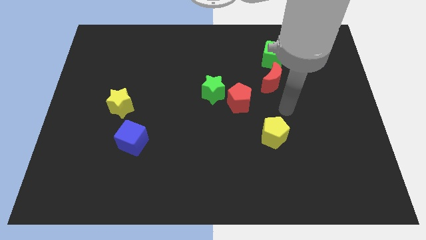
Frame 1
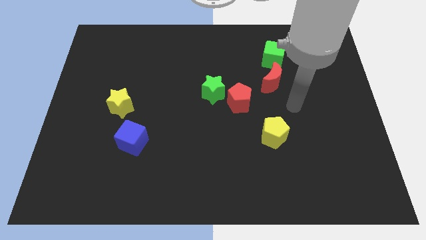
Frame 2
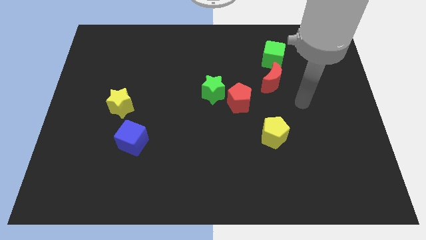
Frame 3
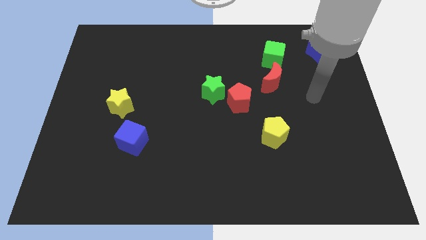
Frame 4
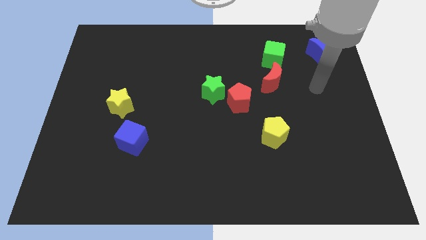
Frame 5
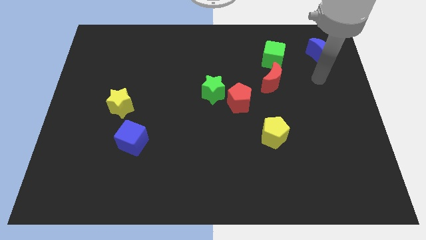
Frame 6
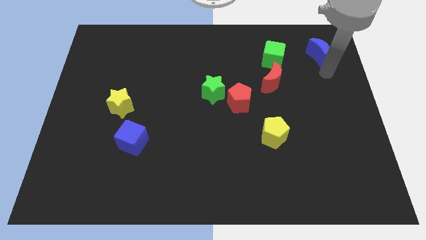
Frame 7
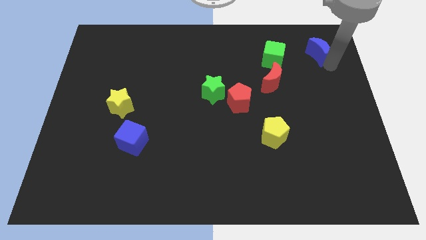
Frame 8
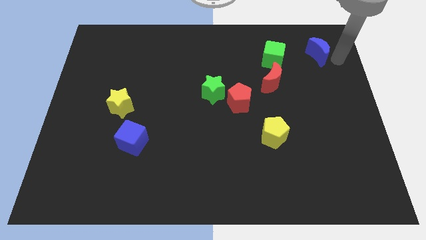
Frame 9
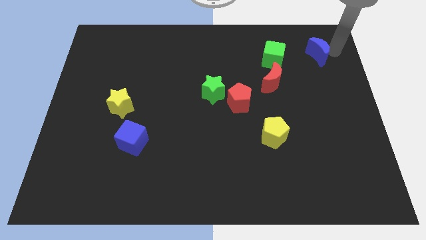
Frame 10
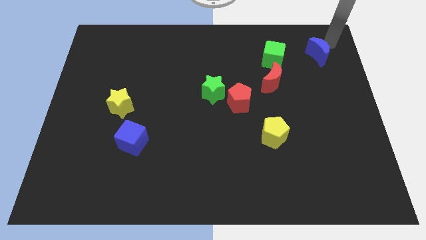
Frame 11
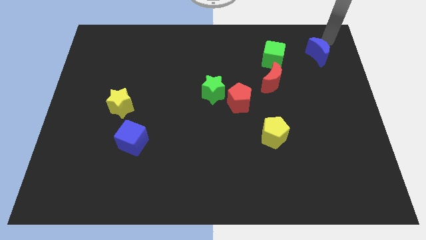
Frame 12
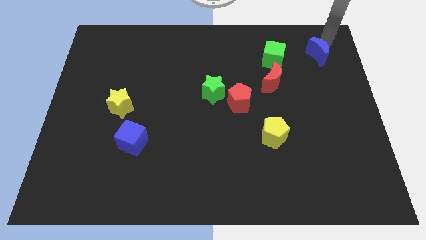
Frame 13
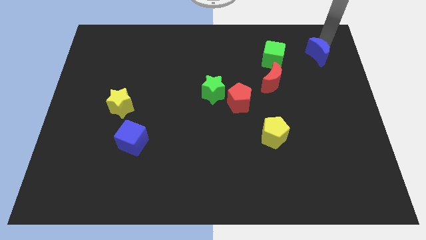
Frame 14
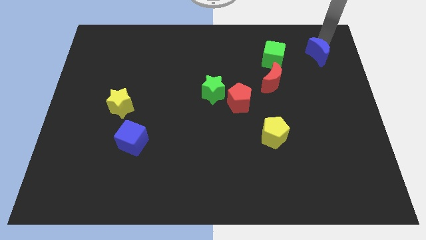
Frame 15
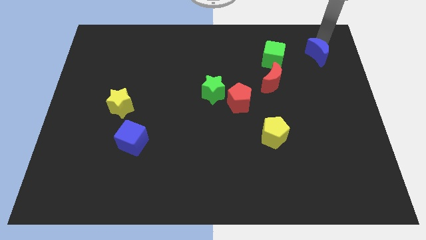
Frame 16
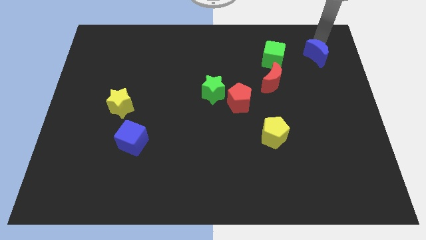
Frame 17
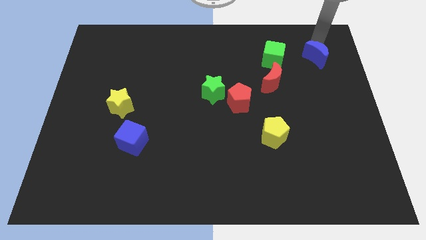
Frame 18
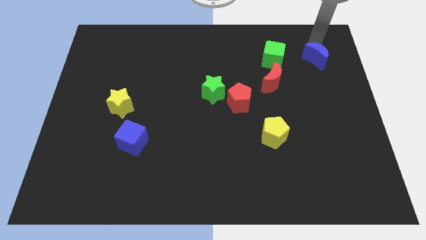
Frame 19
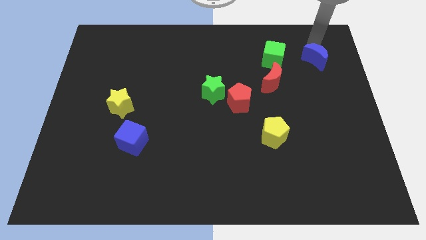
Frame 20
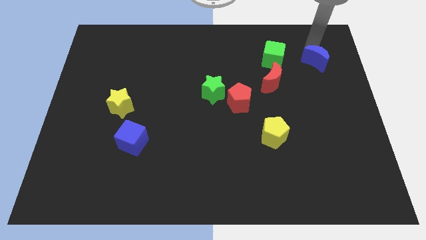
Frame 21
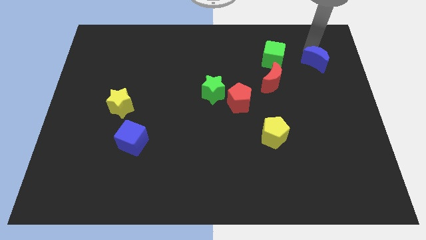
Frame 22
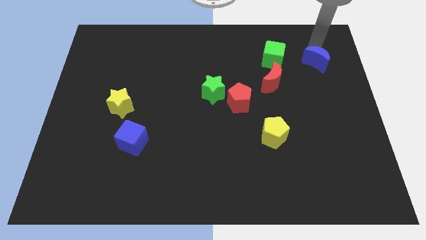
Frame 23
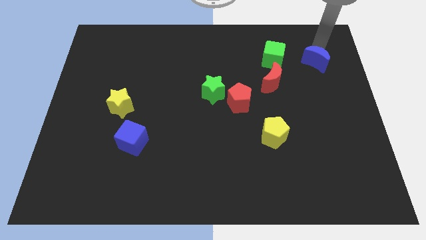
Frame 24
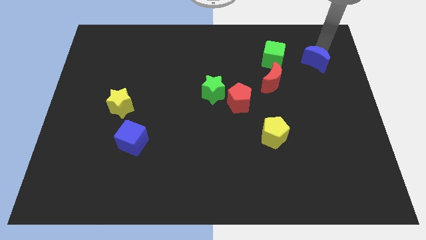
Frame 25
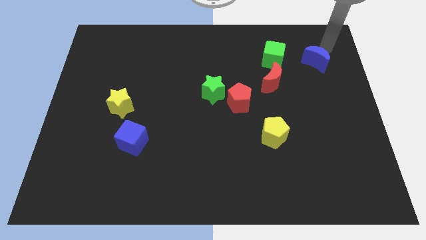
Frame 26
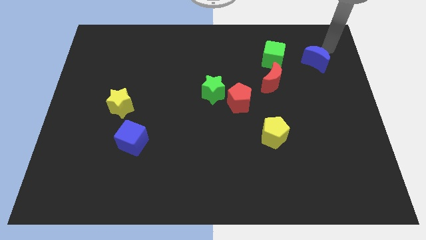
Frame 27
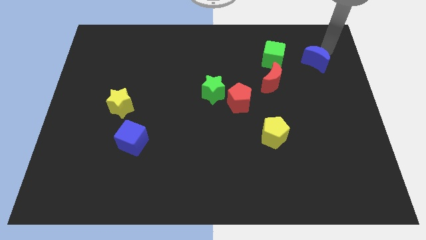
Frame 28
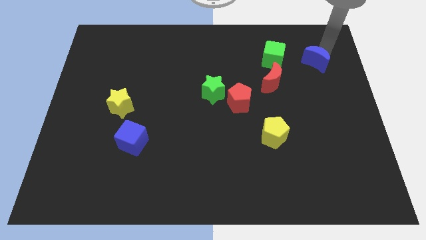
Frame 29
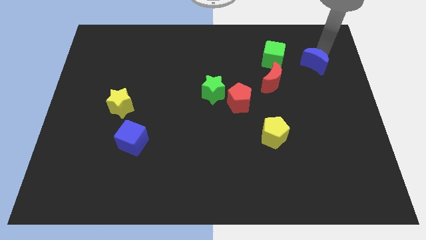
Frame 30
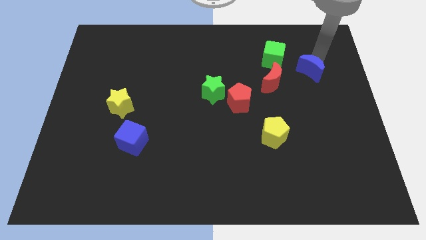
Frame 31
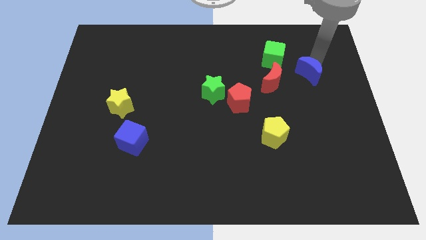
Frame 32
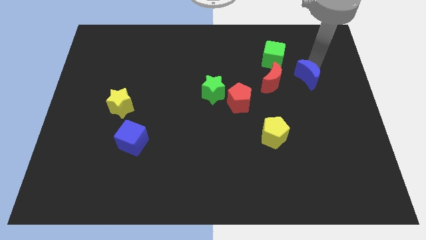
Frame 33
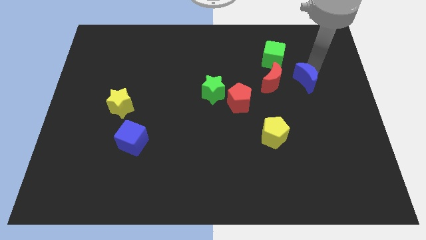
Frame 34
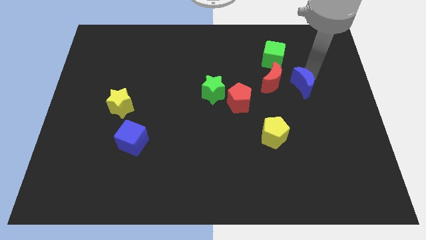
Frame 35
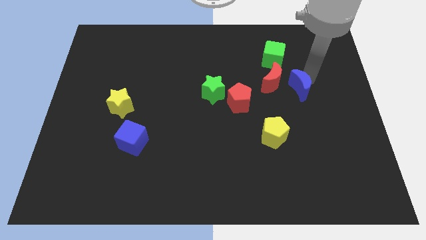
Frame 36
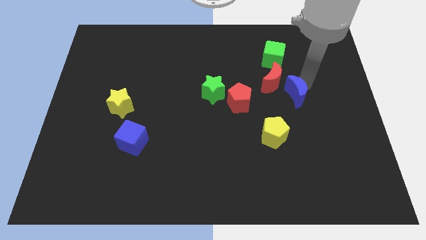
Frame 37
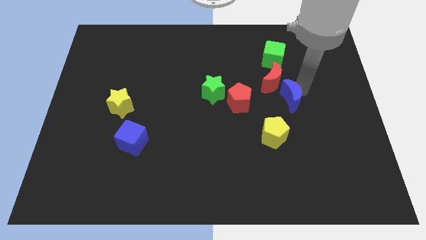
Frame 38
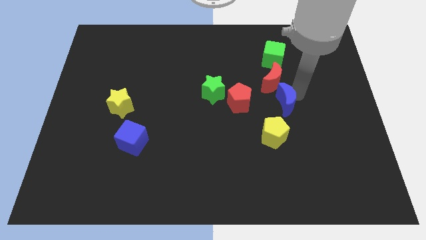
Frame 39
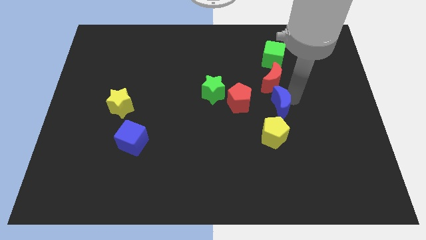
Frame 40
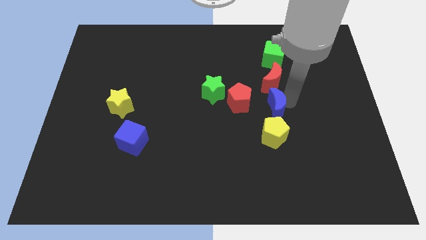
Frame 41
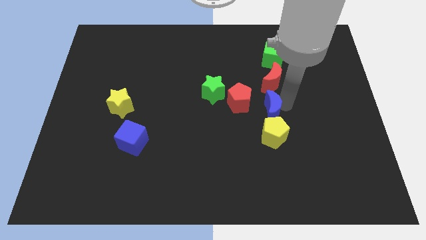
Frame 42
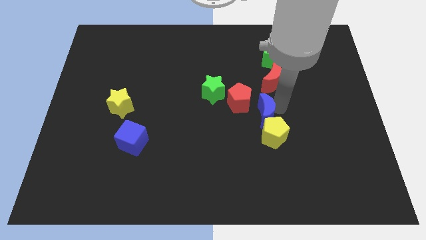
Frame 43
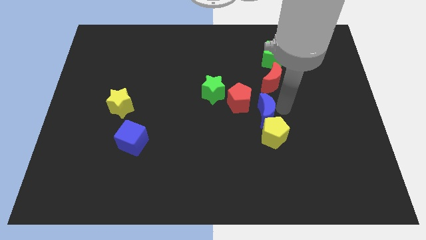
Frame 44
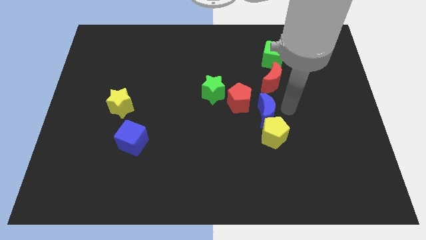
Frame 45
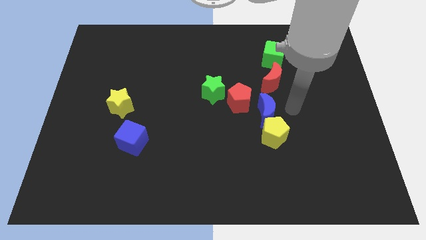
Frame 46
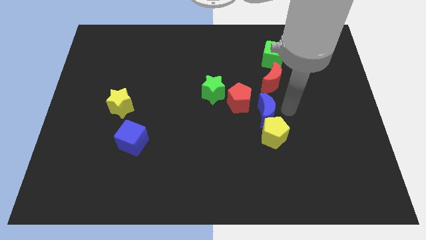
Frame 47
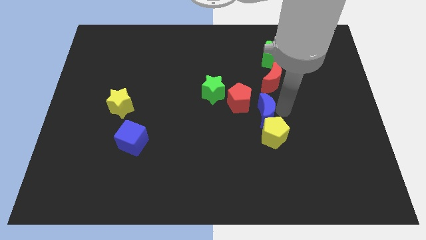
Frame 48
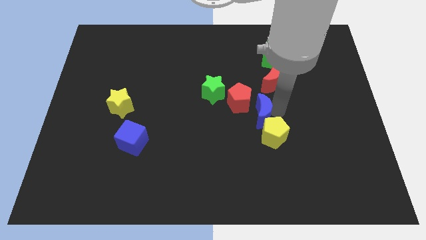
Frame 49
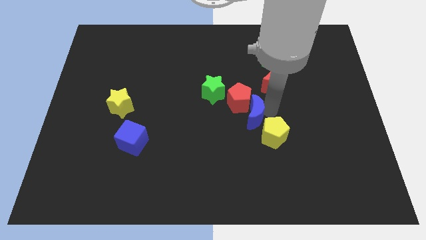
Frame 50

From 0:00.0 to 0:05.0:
put the blue moon to the bottom of the red pentagon

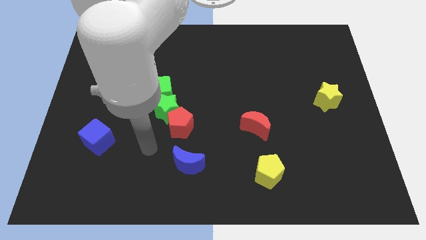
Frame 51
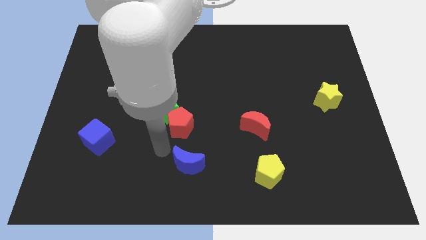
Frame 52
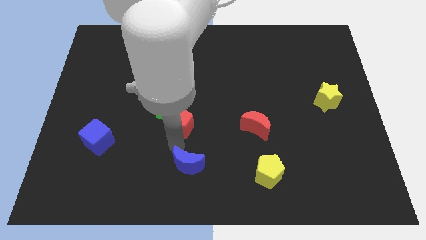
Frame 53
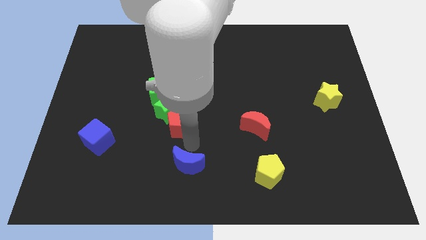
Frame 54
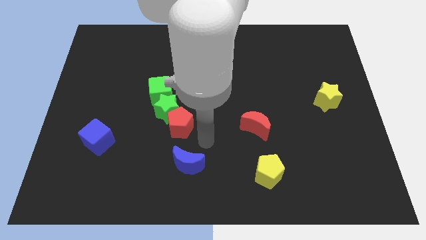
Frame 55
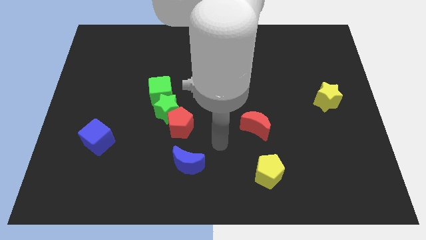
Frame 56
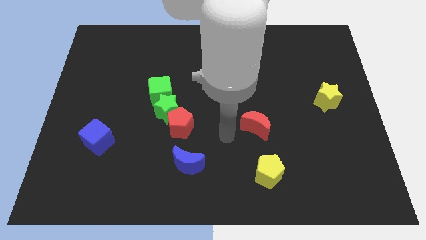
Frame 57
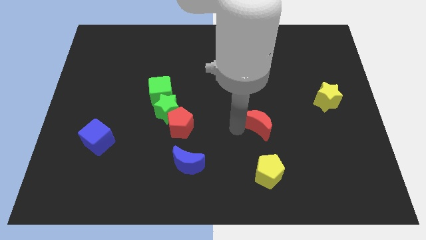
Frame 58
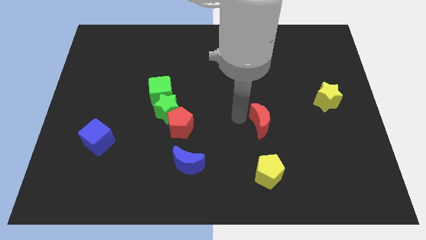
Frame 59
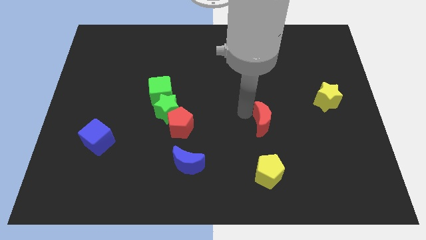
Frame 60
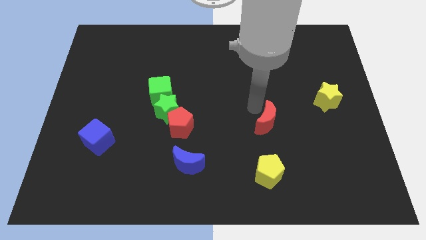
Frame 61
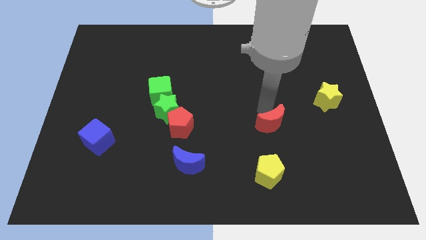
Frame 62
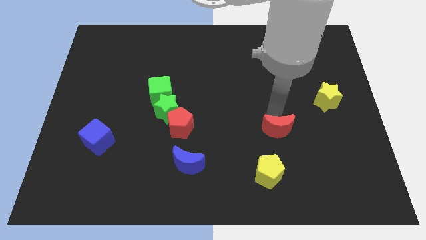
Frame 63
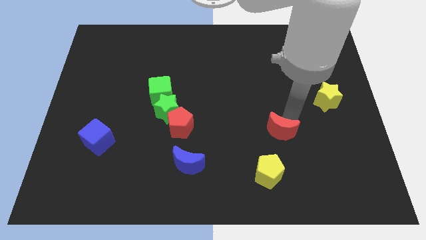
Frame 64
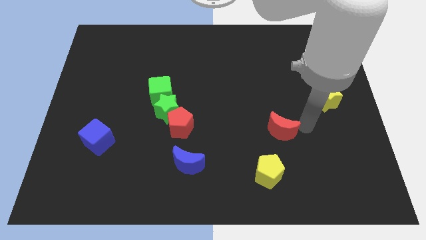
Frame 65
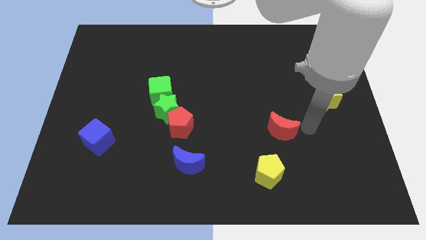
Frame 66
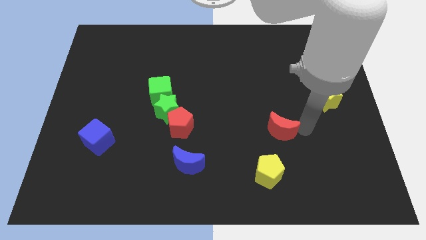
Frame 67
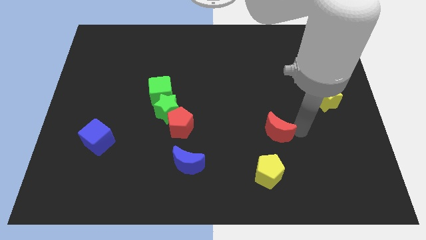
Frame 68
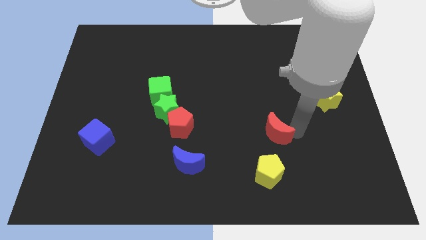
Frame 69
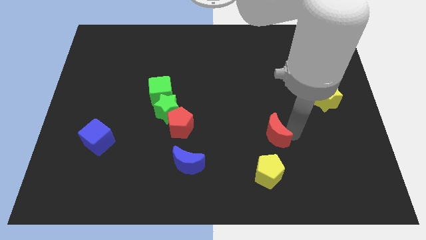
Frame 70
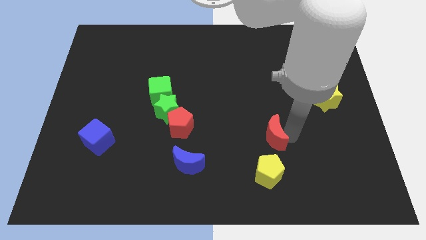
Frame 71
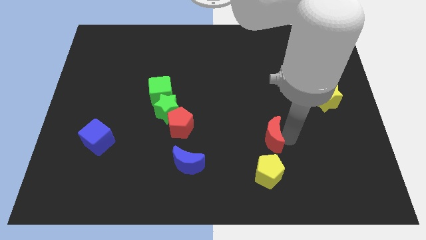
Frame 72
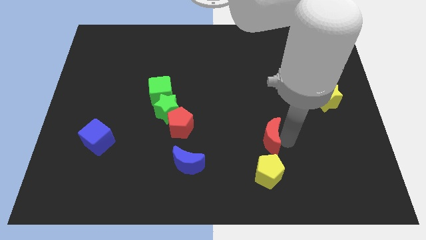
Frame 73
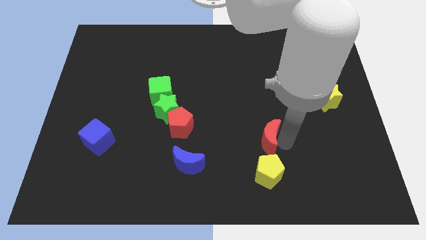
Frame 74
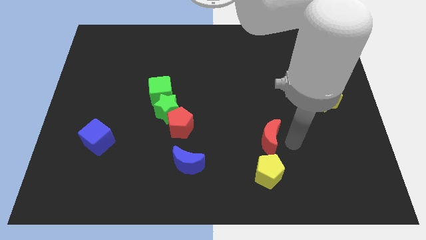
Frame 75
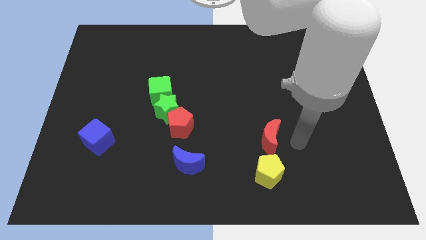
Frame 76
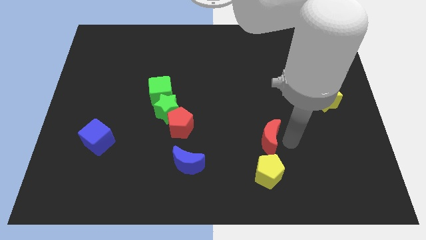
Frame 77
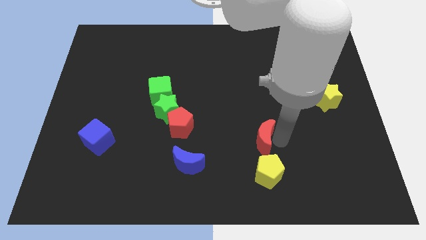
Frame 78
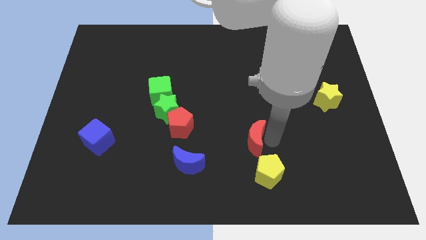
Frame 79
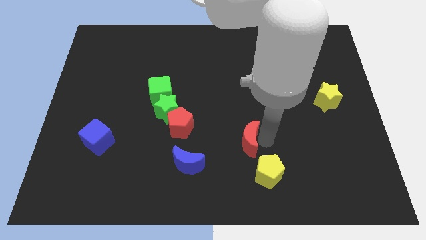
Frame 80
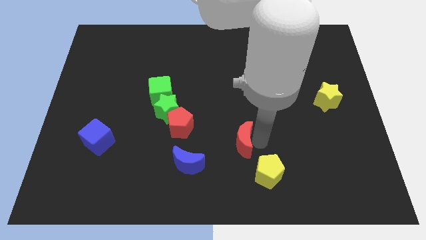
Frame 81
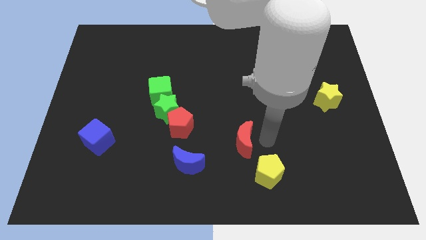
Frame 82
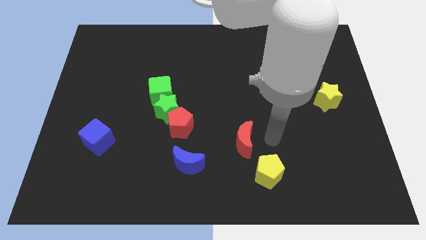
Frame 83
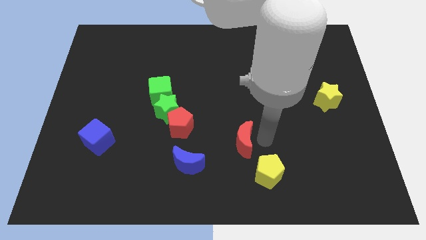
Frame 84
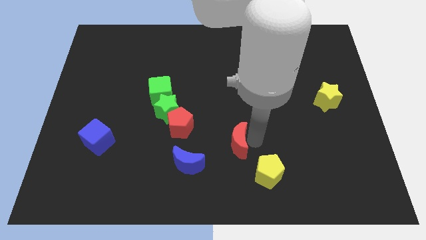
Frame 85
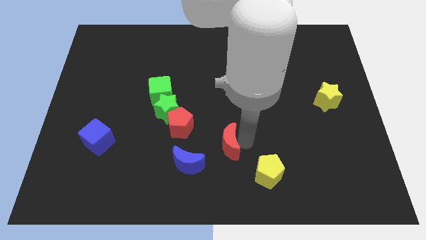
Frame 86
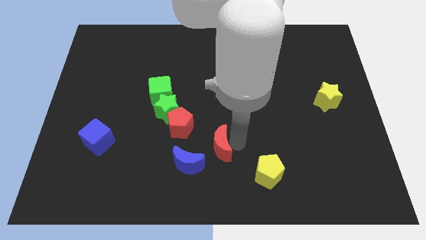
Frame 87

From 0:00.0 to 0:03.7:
put the red moon to the bottom right side of the red pentagon
